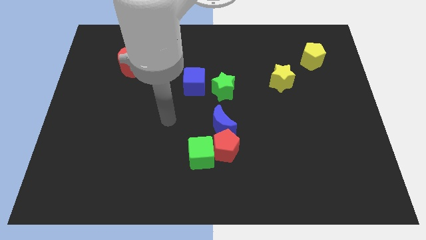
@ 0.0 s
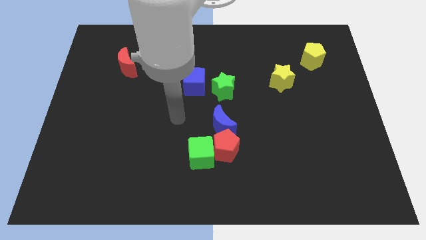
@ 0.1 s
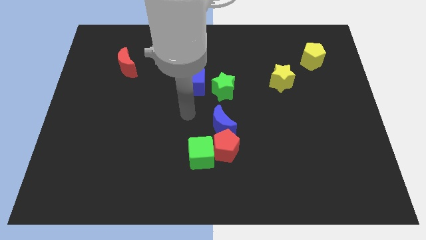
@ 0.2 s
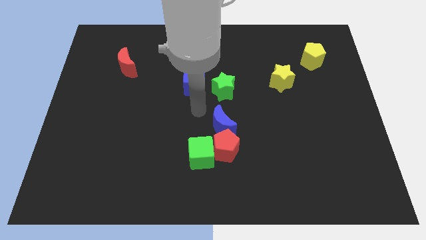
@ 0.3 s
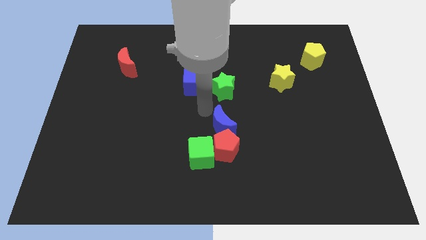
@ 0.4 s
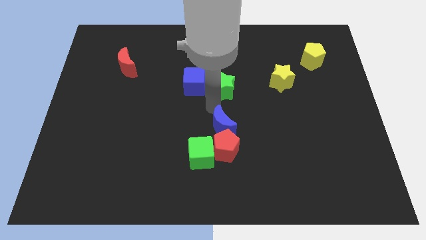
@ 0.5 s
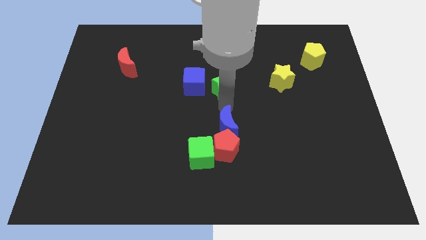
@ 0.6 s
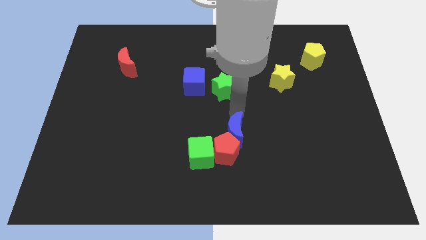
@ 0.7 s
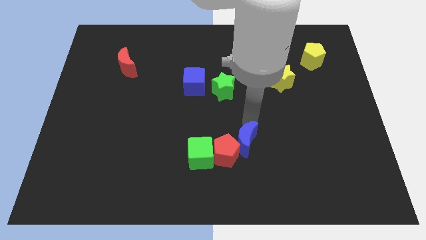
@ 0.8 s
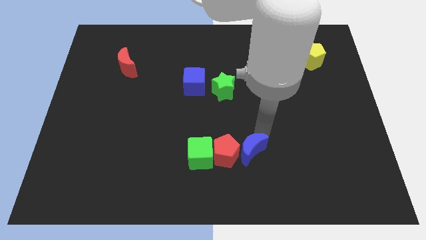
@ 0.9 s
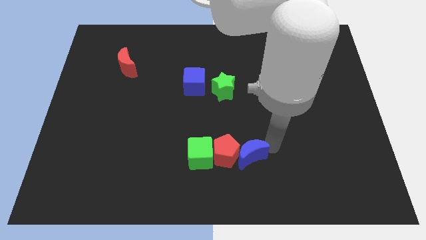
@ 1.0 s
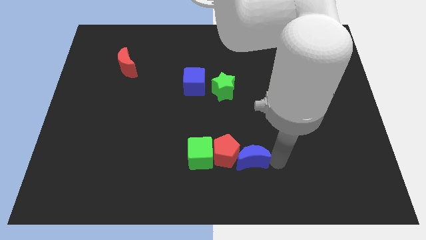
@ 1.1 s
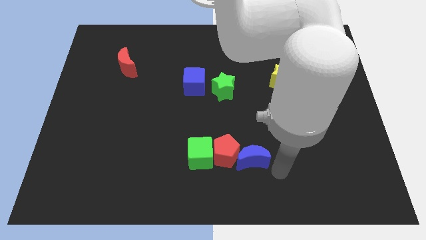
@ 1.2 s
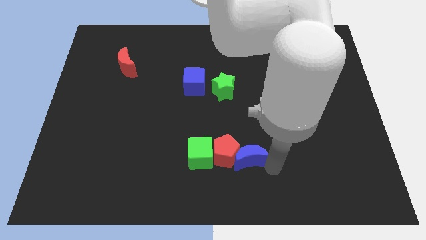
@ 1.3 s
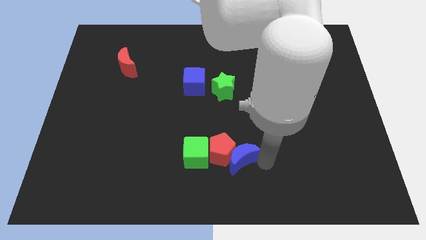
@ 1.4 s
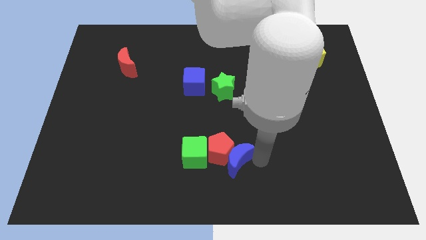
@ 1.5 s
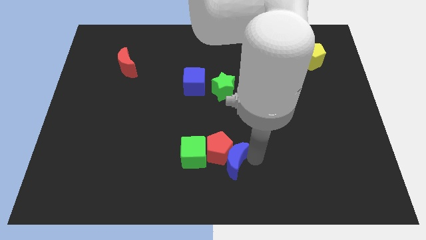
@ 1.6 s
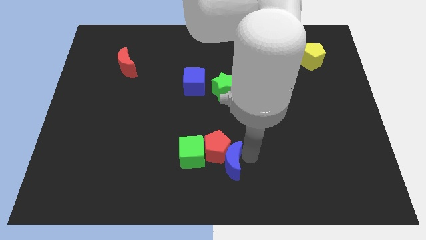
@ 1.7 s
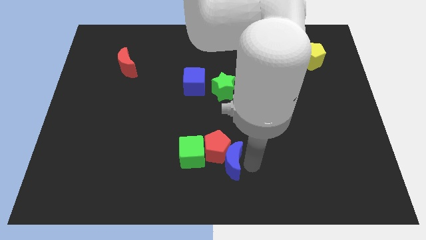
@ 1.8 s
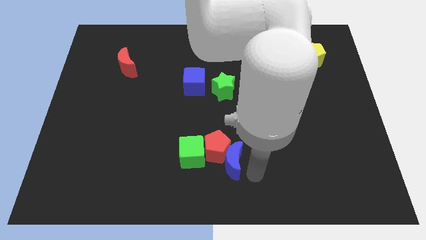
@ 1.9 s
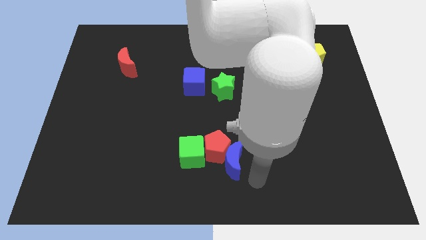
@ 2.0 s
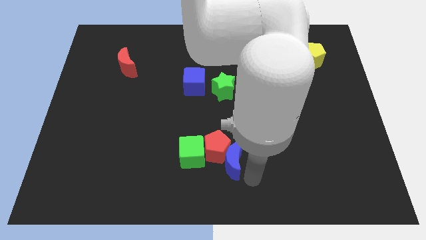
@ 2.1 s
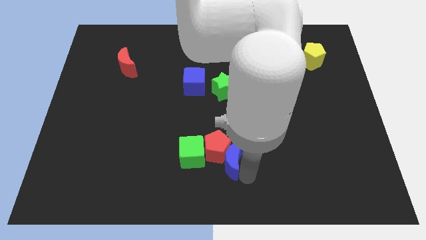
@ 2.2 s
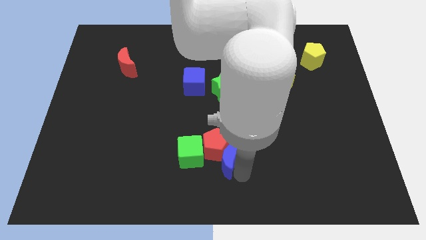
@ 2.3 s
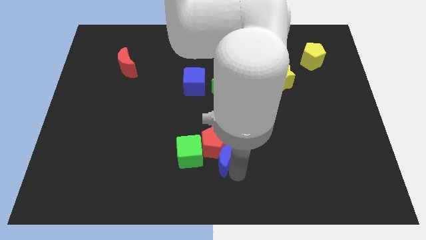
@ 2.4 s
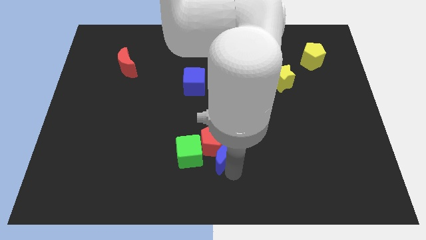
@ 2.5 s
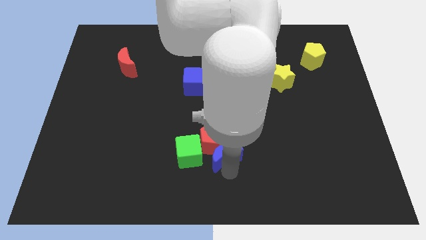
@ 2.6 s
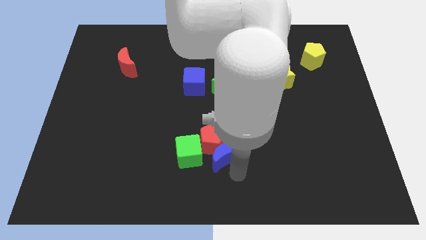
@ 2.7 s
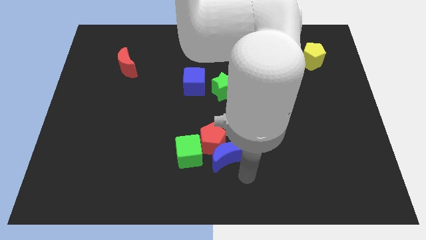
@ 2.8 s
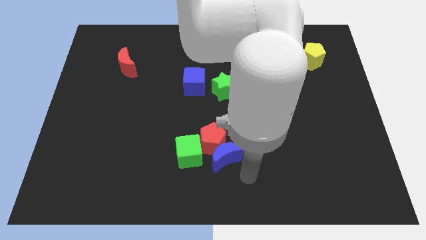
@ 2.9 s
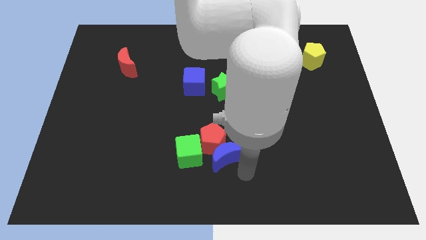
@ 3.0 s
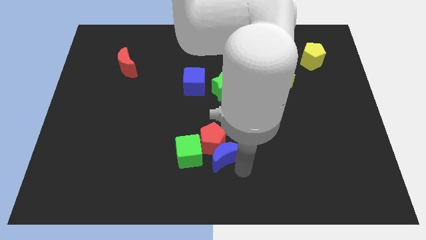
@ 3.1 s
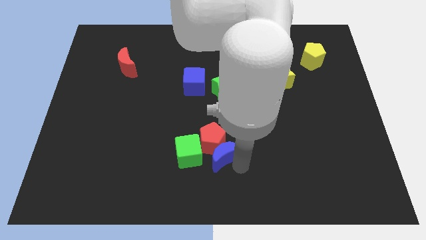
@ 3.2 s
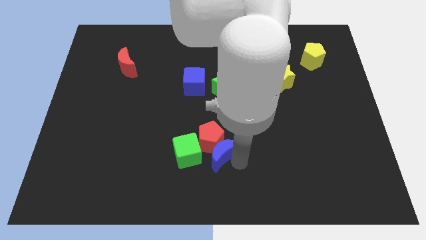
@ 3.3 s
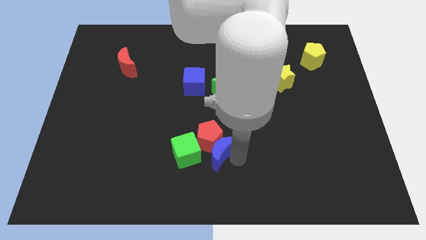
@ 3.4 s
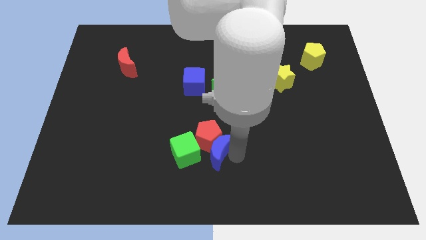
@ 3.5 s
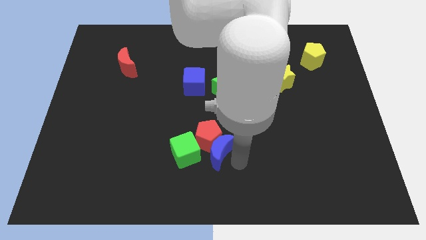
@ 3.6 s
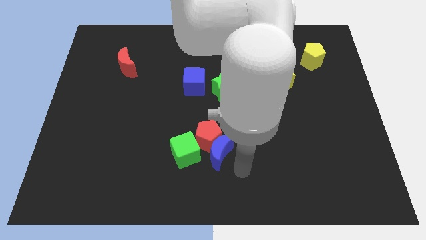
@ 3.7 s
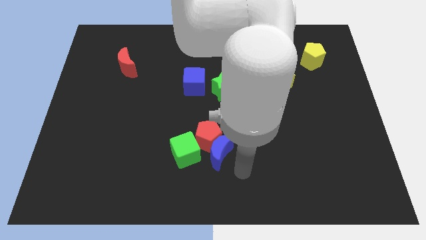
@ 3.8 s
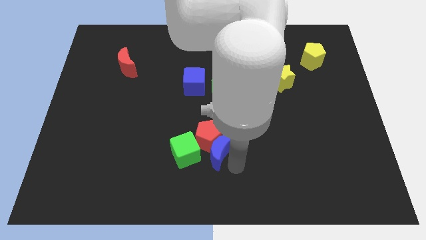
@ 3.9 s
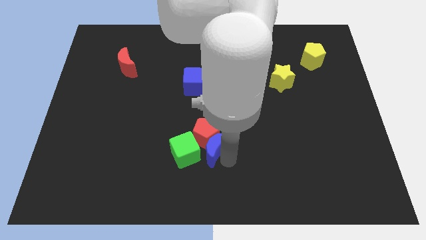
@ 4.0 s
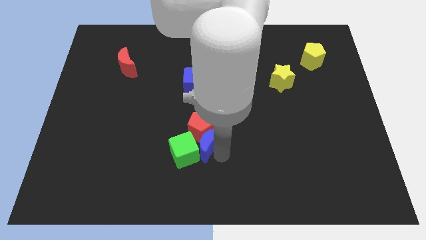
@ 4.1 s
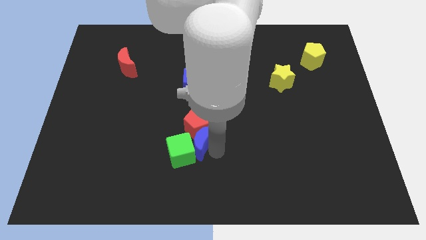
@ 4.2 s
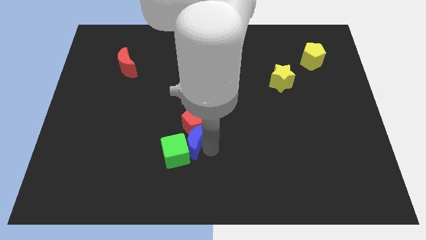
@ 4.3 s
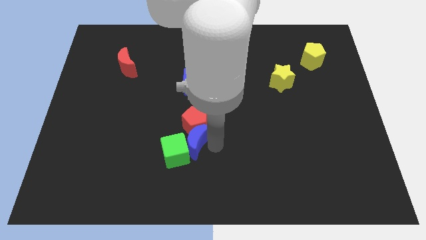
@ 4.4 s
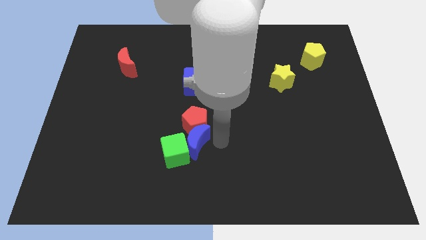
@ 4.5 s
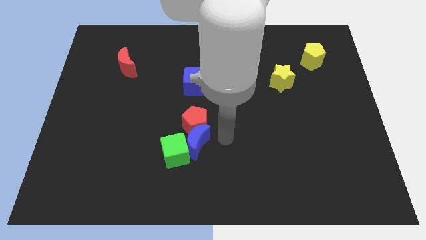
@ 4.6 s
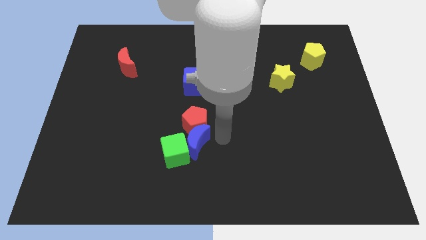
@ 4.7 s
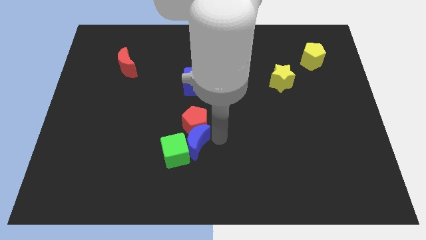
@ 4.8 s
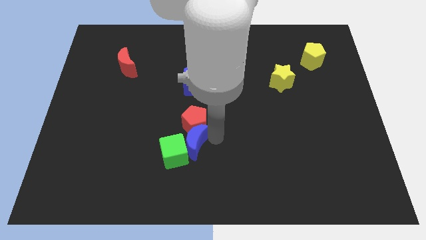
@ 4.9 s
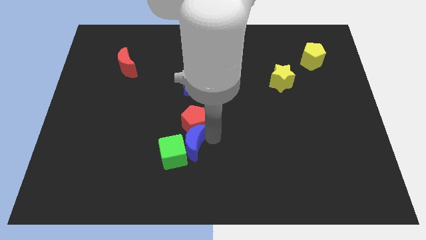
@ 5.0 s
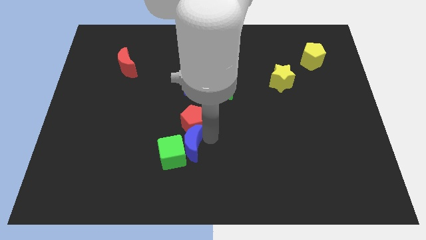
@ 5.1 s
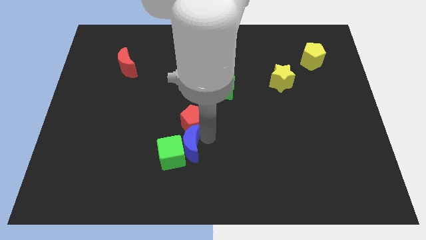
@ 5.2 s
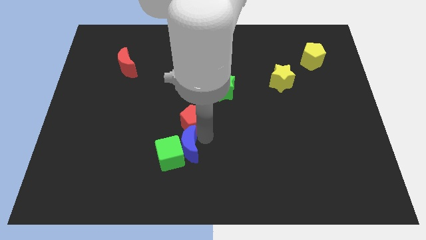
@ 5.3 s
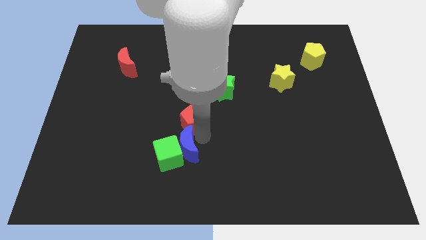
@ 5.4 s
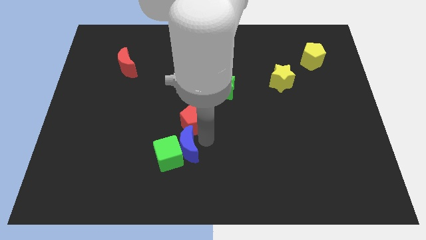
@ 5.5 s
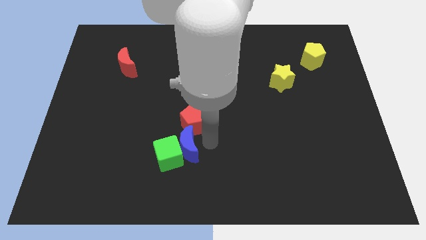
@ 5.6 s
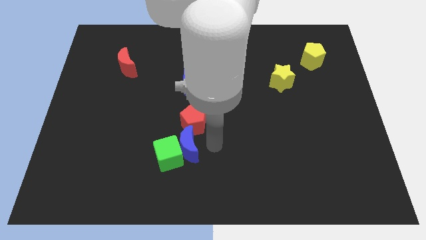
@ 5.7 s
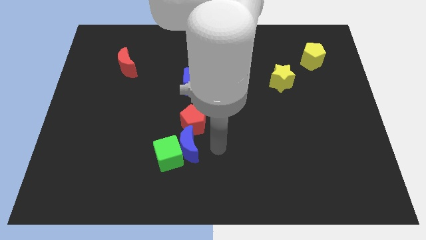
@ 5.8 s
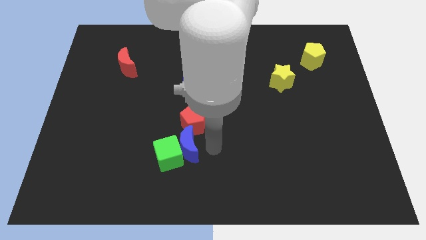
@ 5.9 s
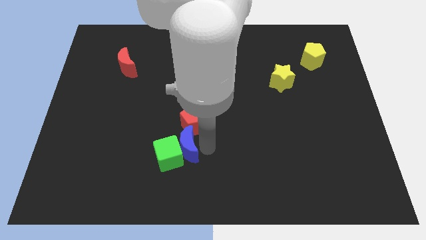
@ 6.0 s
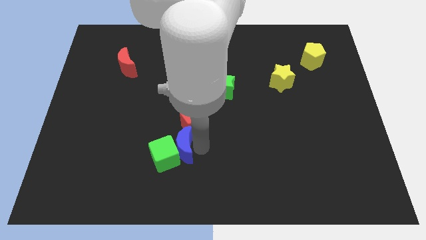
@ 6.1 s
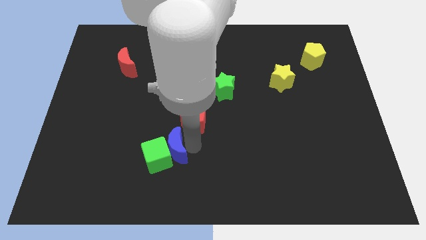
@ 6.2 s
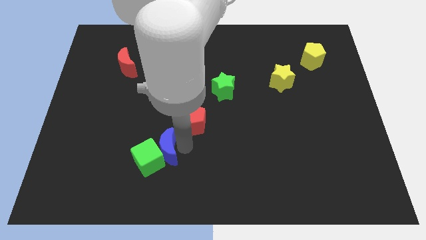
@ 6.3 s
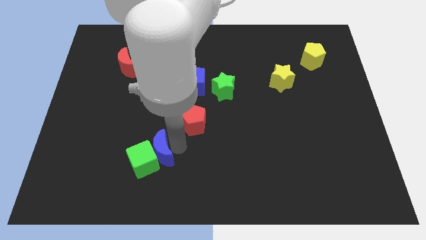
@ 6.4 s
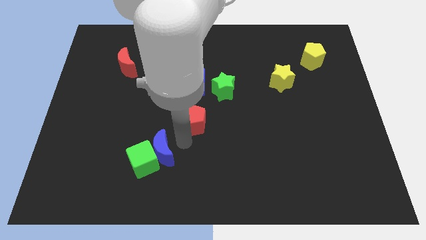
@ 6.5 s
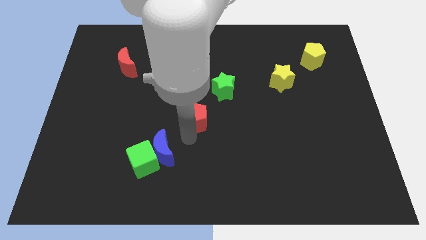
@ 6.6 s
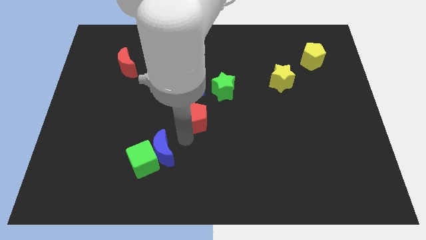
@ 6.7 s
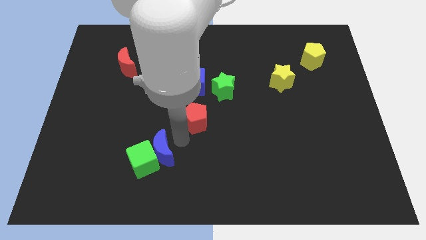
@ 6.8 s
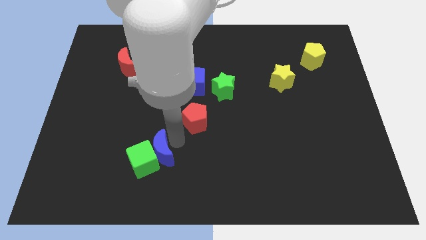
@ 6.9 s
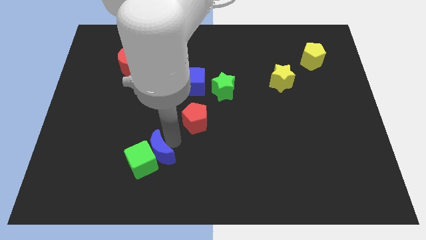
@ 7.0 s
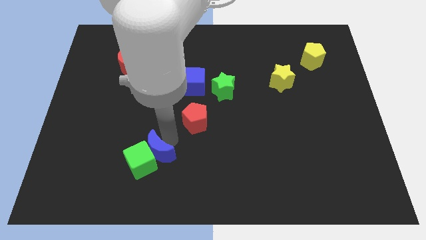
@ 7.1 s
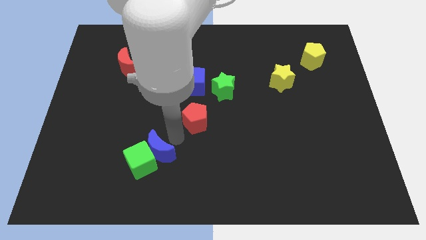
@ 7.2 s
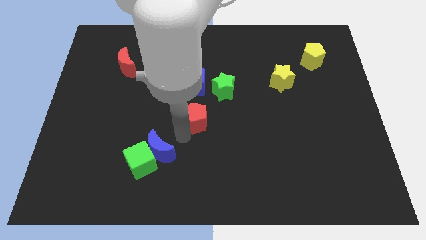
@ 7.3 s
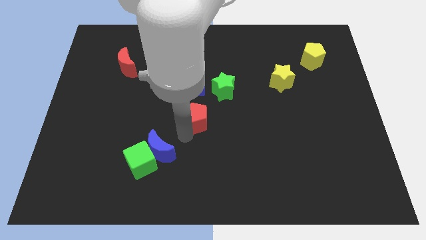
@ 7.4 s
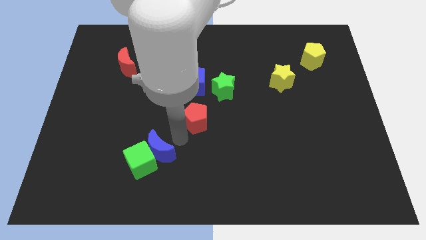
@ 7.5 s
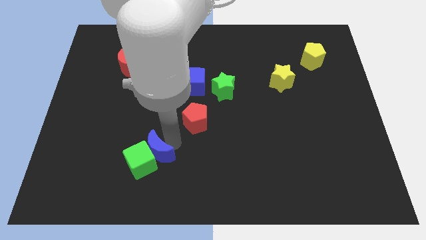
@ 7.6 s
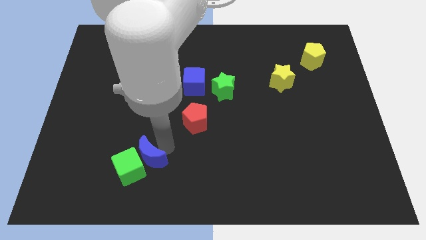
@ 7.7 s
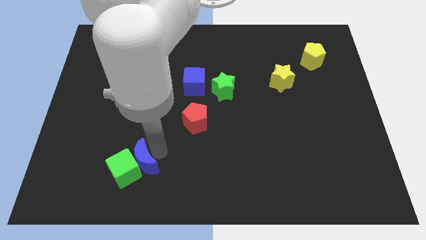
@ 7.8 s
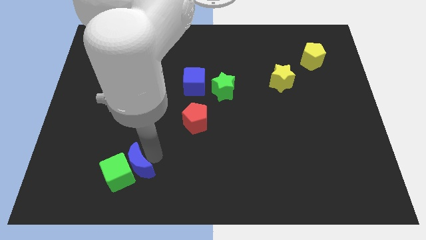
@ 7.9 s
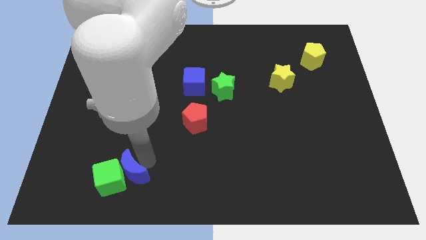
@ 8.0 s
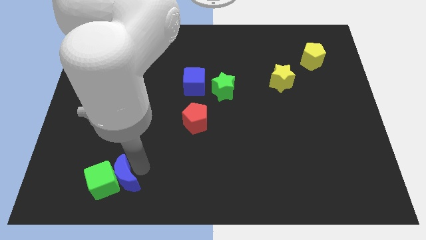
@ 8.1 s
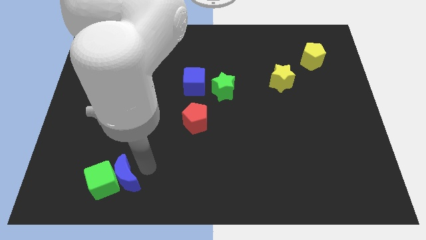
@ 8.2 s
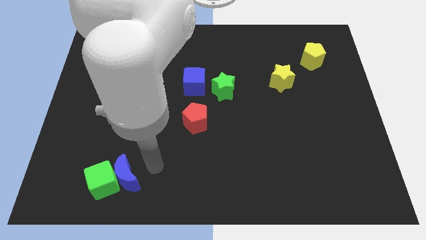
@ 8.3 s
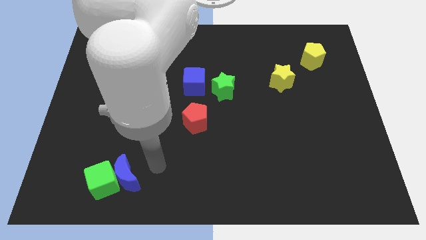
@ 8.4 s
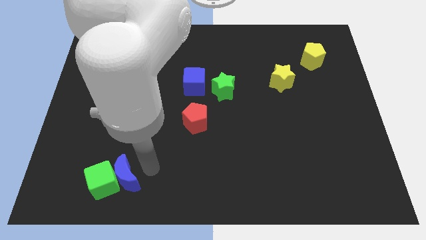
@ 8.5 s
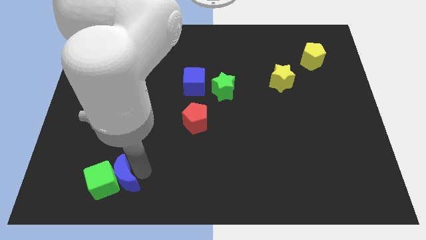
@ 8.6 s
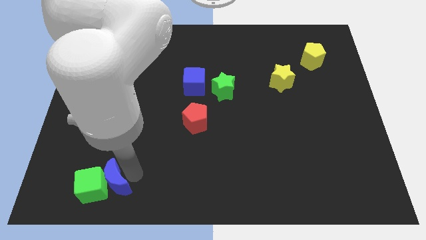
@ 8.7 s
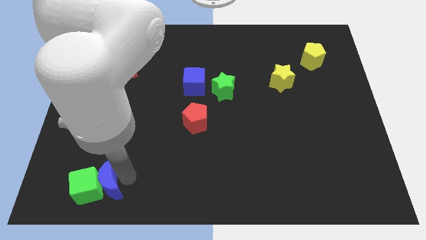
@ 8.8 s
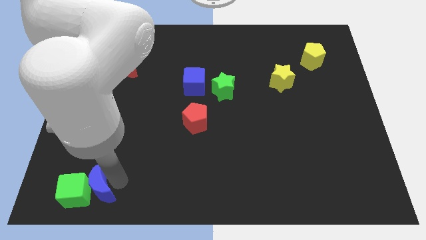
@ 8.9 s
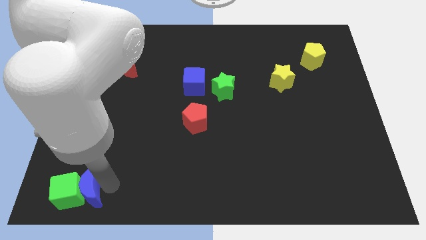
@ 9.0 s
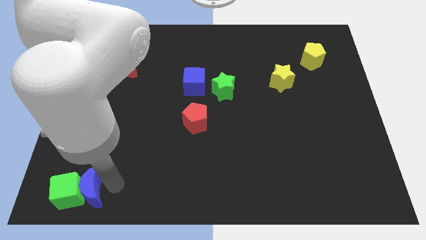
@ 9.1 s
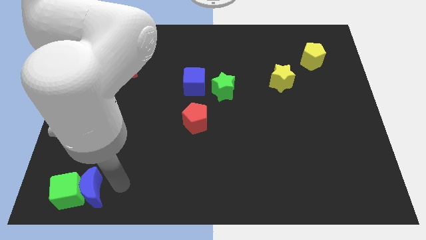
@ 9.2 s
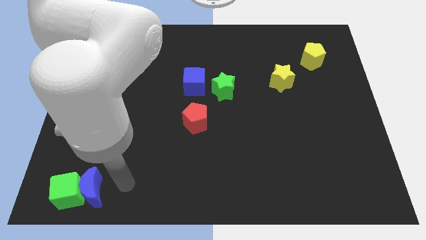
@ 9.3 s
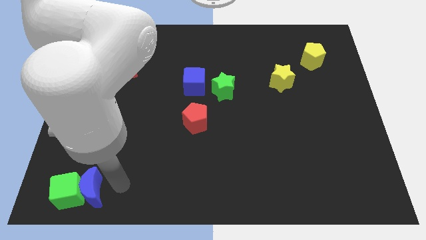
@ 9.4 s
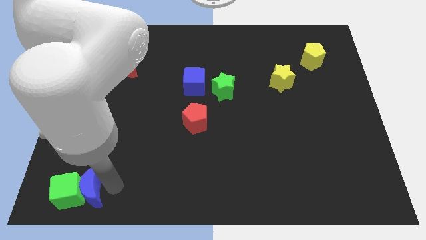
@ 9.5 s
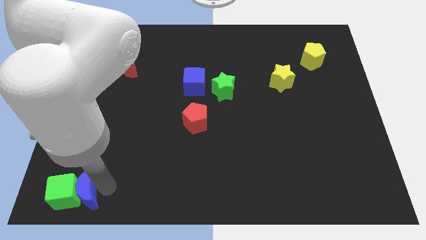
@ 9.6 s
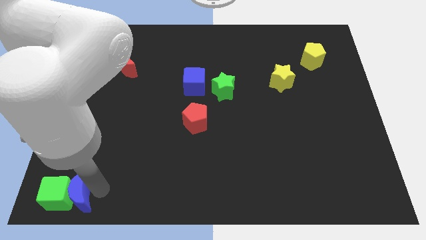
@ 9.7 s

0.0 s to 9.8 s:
move the blue moon to the lower left corner
